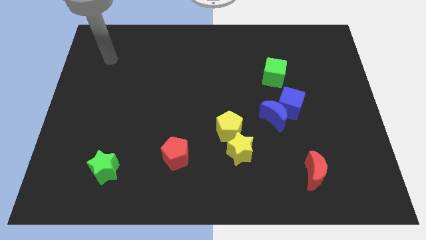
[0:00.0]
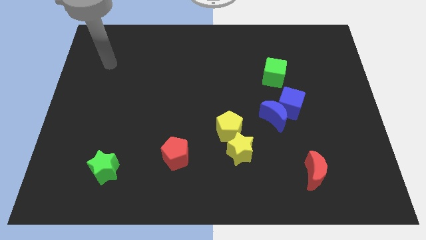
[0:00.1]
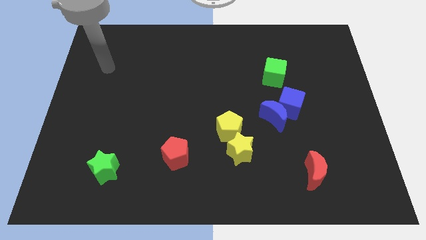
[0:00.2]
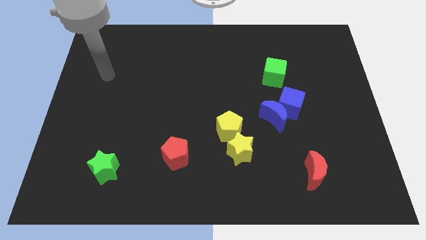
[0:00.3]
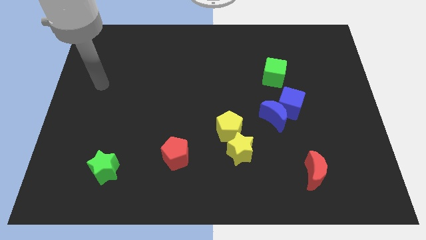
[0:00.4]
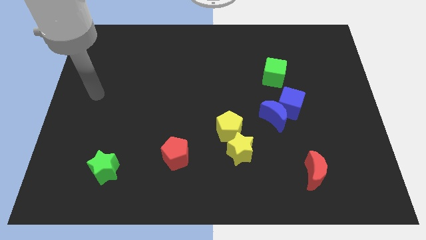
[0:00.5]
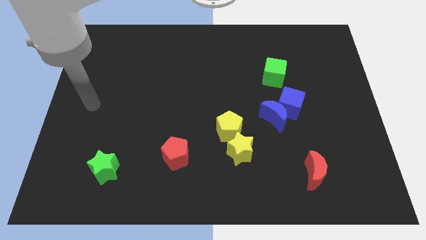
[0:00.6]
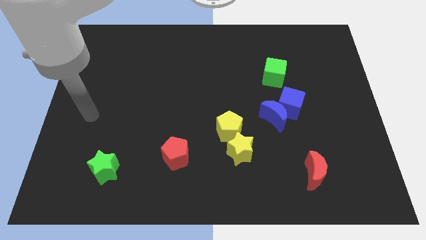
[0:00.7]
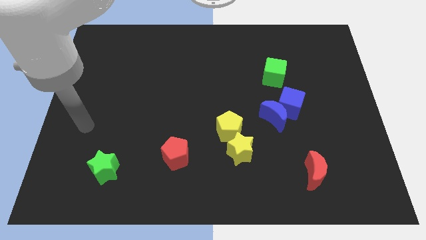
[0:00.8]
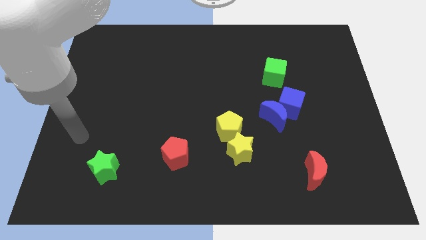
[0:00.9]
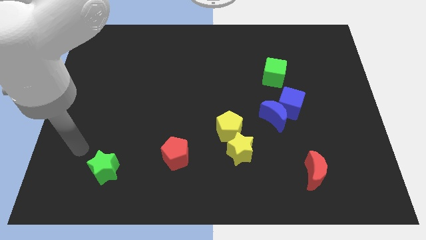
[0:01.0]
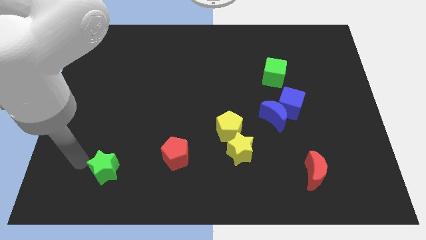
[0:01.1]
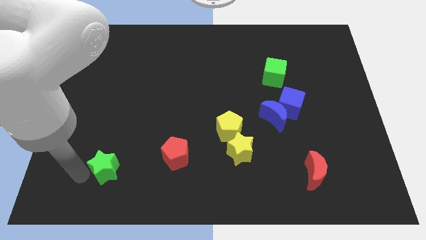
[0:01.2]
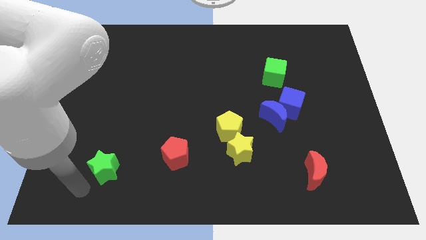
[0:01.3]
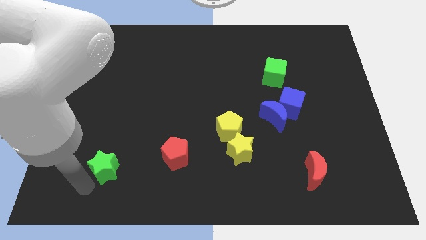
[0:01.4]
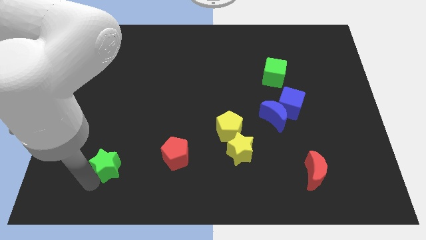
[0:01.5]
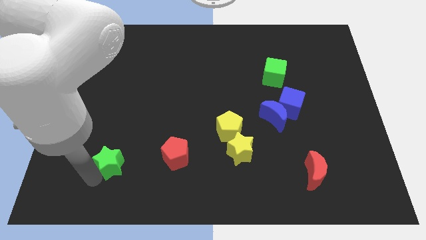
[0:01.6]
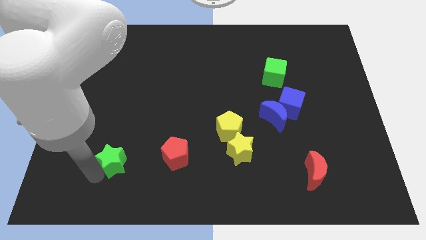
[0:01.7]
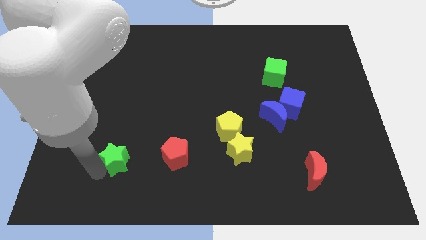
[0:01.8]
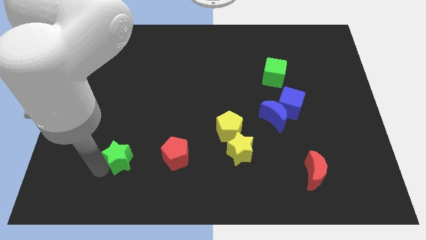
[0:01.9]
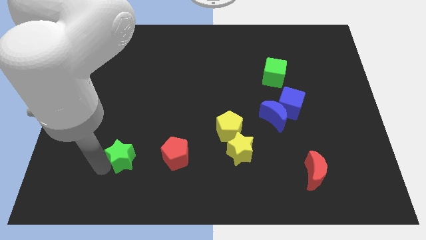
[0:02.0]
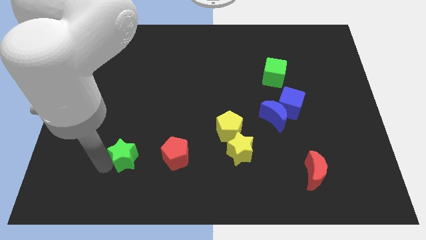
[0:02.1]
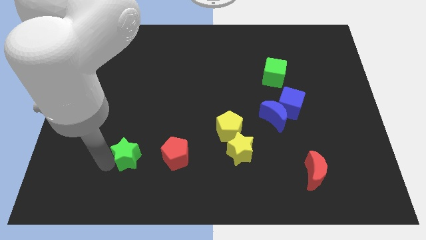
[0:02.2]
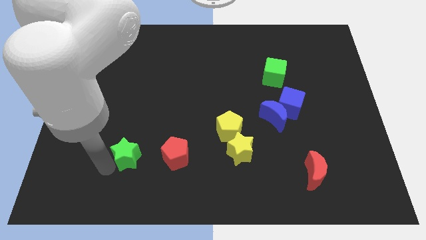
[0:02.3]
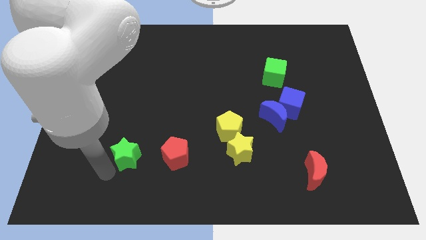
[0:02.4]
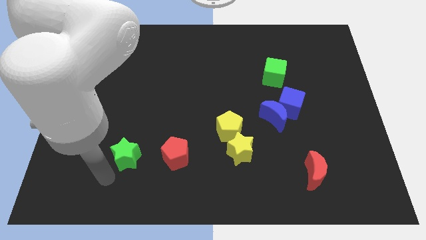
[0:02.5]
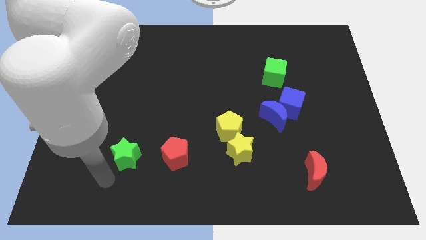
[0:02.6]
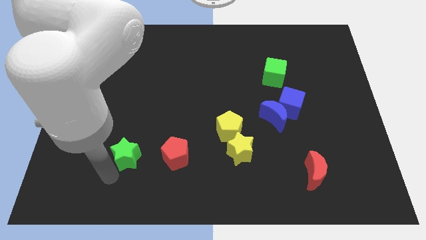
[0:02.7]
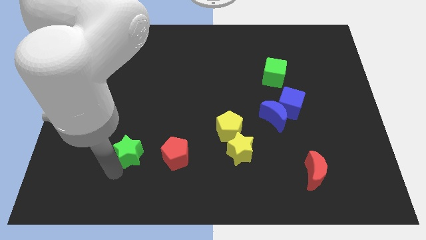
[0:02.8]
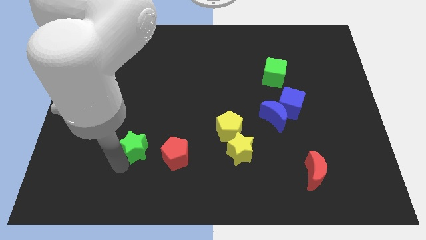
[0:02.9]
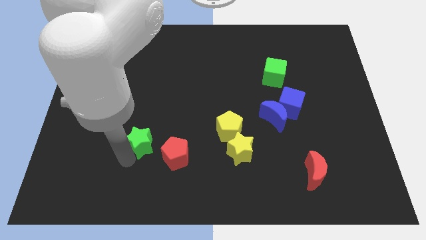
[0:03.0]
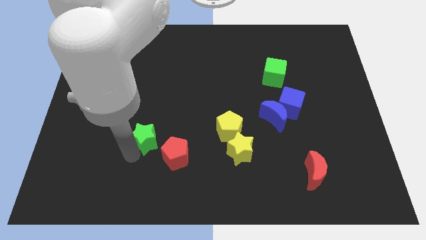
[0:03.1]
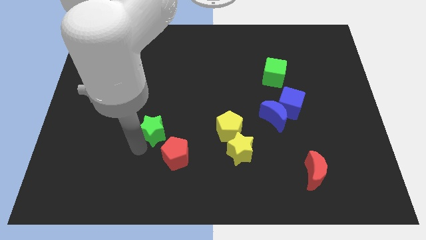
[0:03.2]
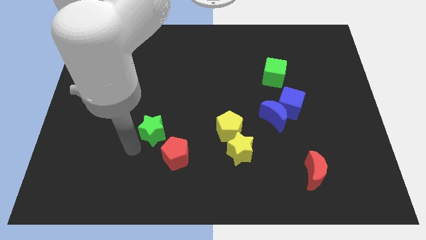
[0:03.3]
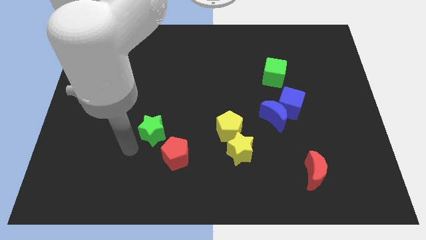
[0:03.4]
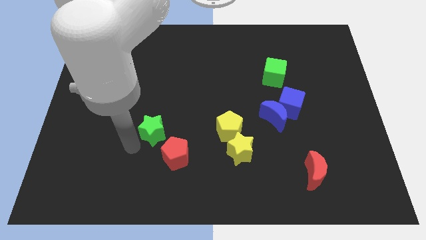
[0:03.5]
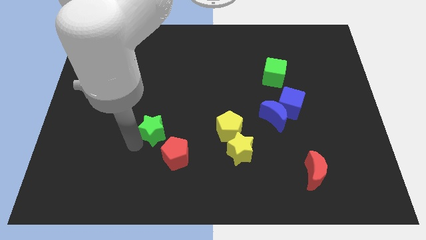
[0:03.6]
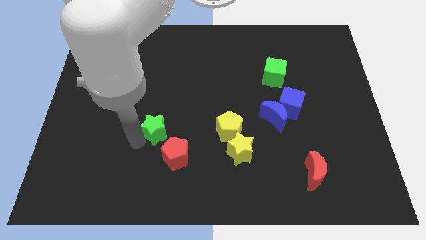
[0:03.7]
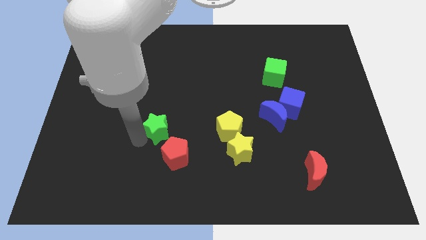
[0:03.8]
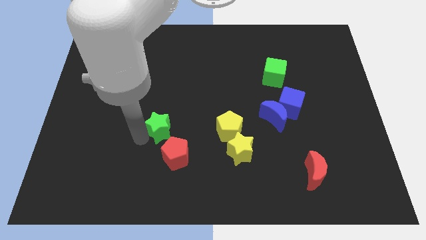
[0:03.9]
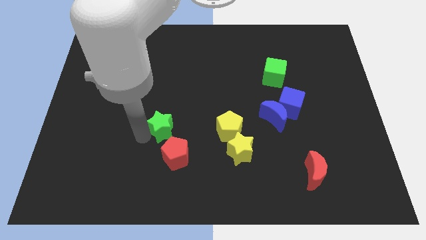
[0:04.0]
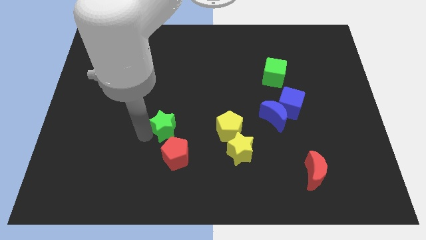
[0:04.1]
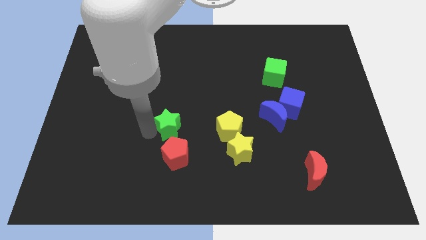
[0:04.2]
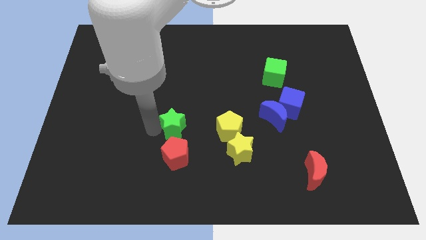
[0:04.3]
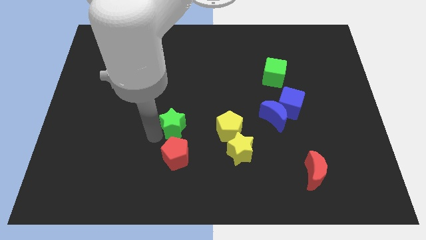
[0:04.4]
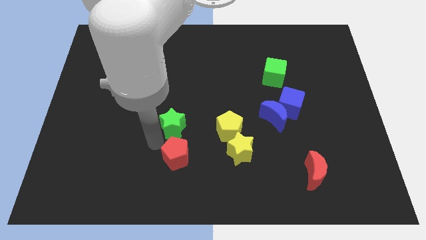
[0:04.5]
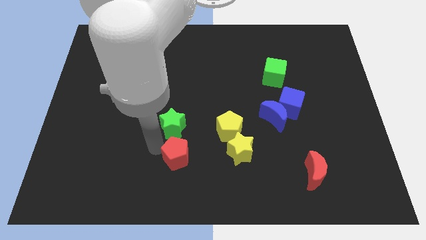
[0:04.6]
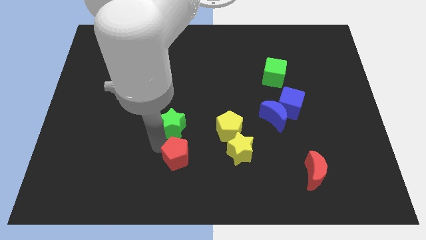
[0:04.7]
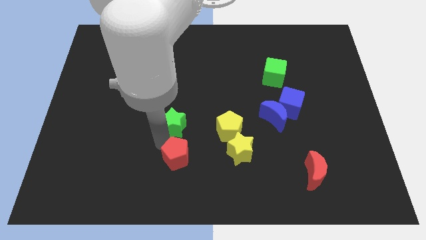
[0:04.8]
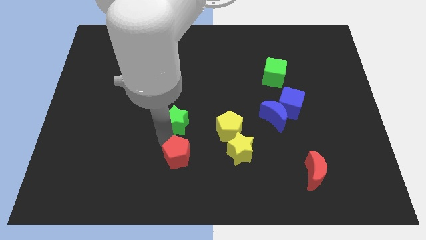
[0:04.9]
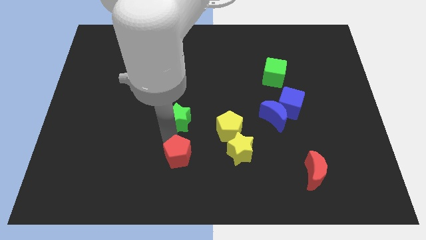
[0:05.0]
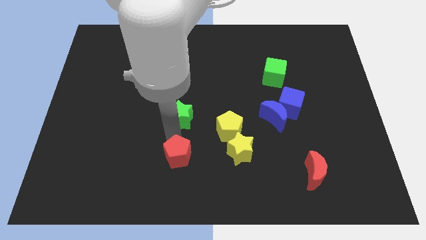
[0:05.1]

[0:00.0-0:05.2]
move the green star upwards and then right

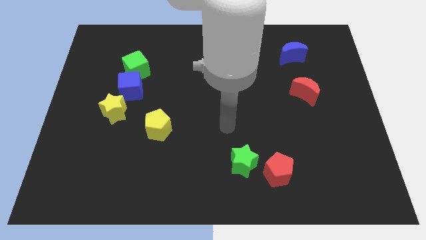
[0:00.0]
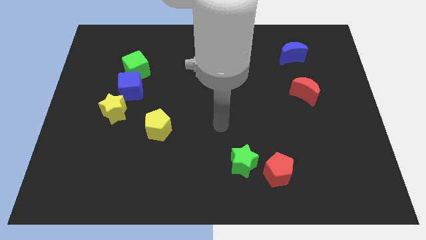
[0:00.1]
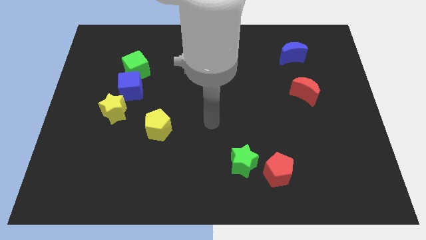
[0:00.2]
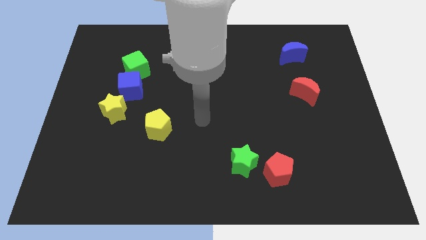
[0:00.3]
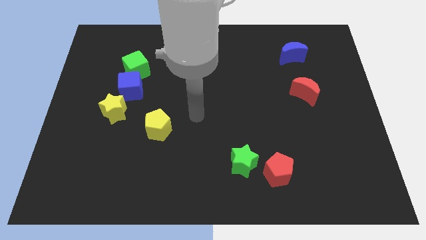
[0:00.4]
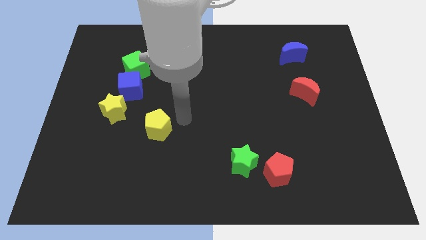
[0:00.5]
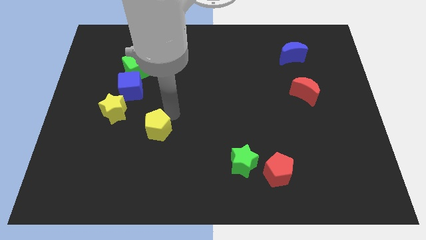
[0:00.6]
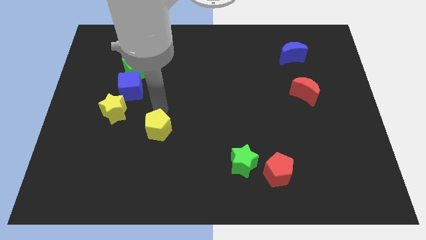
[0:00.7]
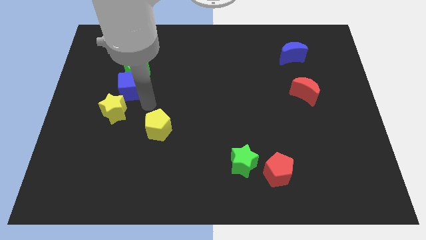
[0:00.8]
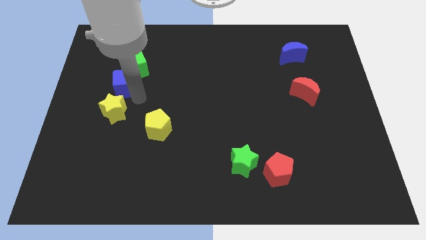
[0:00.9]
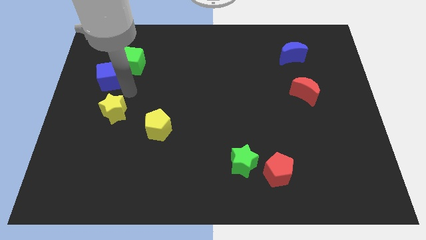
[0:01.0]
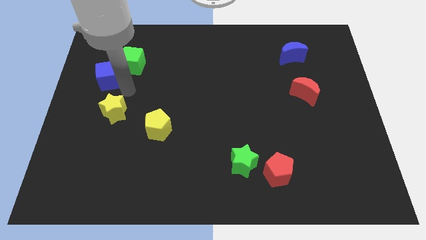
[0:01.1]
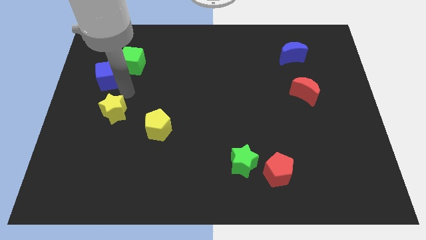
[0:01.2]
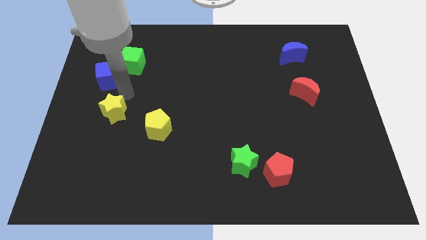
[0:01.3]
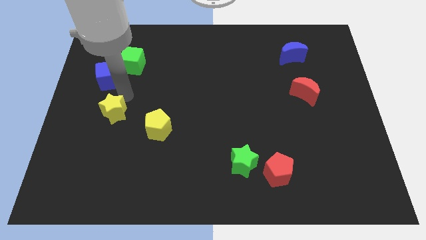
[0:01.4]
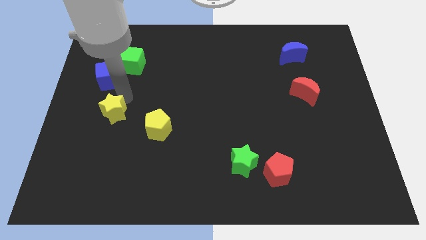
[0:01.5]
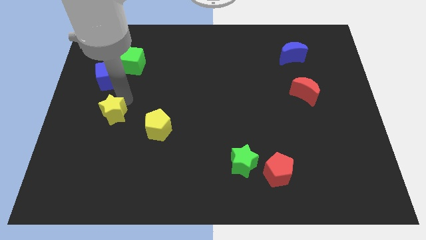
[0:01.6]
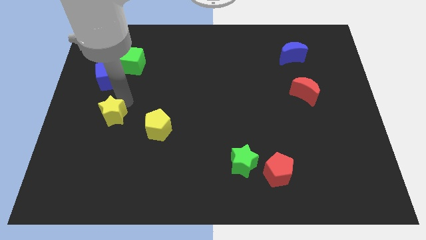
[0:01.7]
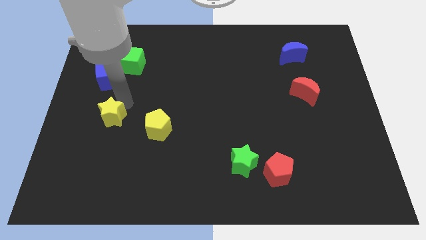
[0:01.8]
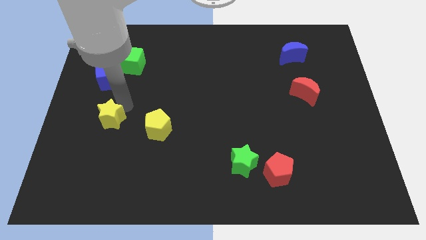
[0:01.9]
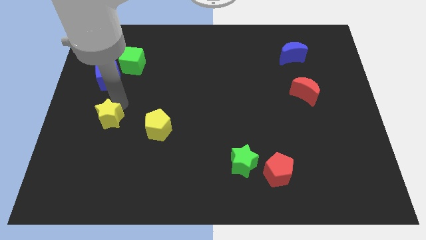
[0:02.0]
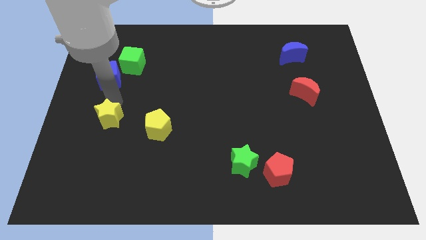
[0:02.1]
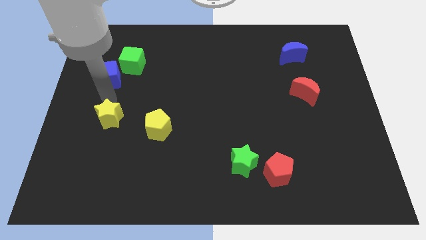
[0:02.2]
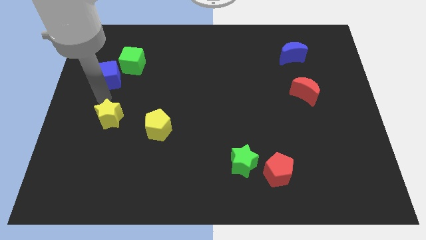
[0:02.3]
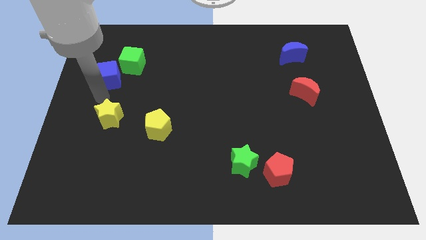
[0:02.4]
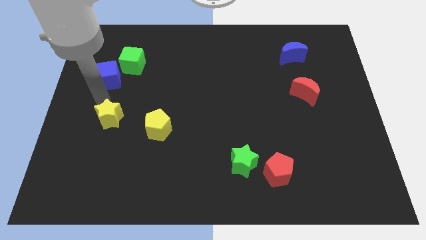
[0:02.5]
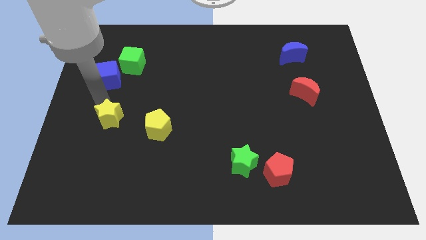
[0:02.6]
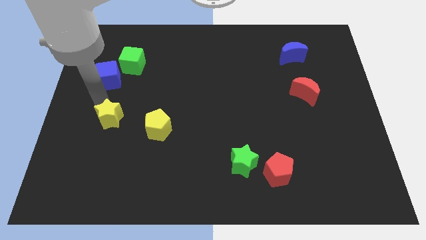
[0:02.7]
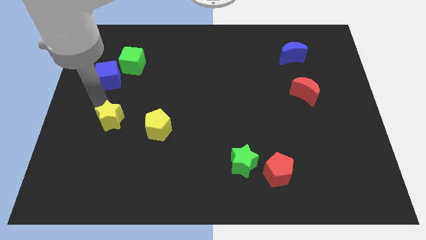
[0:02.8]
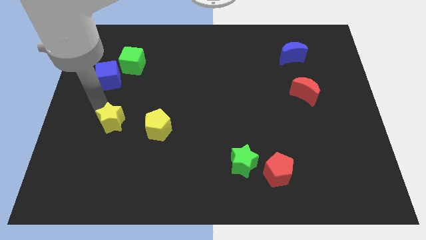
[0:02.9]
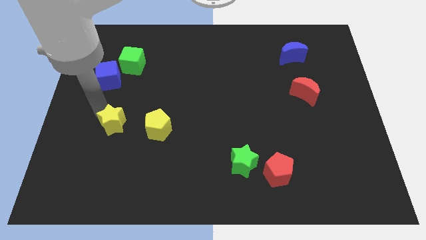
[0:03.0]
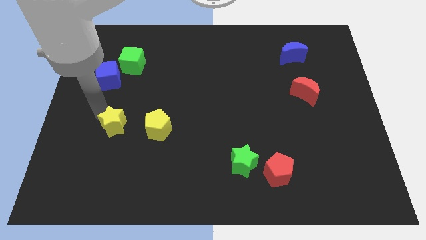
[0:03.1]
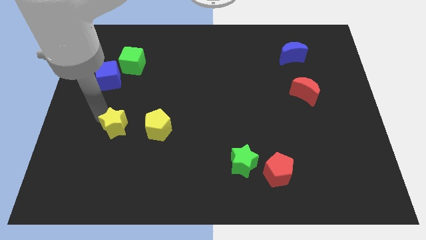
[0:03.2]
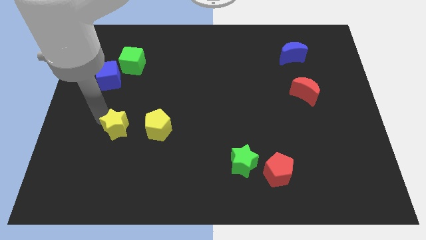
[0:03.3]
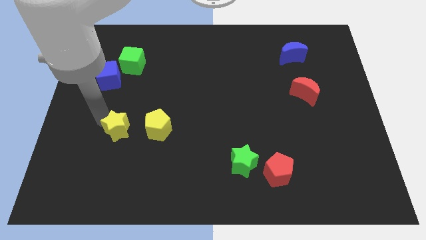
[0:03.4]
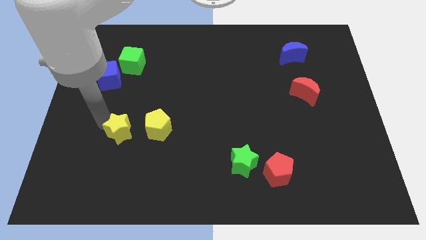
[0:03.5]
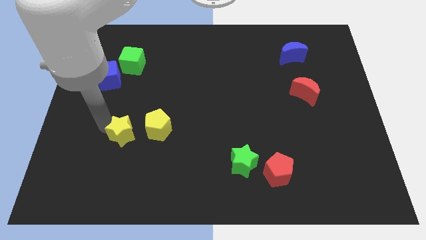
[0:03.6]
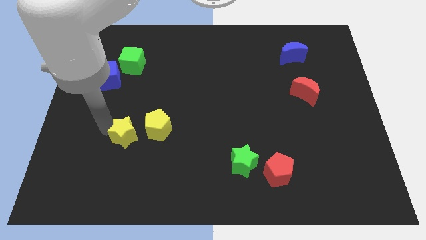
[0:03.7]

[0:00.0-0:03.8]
slightly push the yellow star downwards and to the right diagonally
